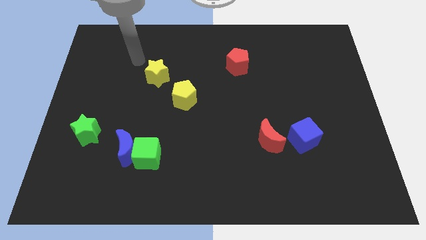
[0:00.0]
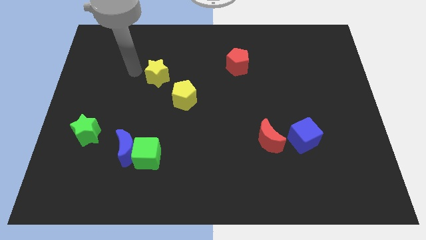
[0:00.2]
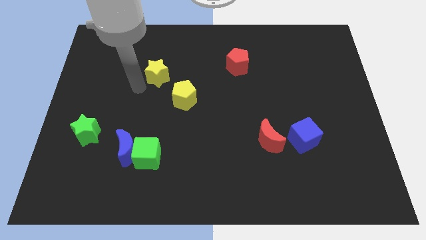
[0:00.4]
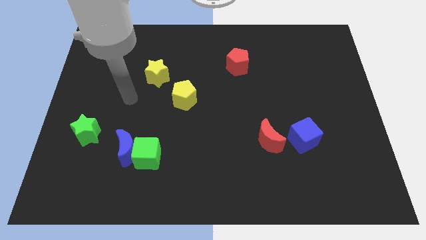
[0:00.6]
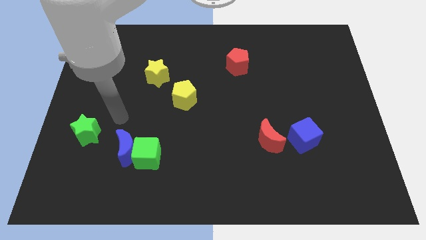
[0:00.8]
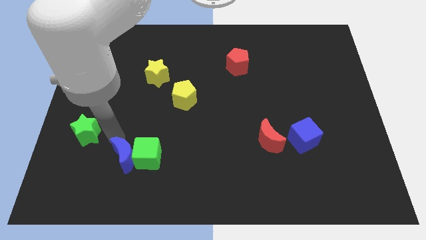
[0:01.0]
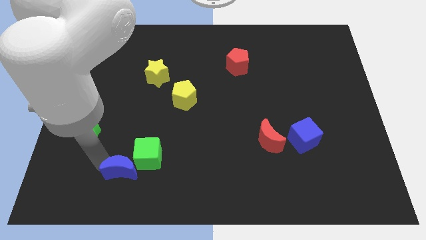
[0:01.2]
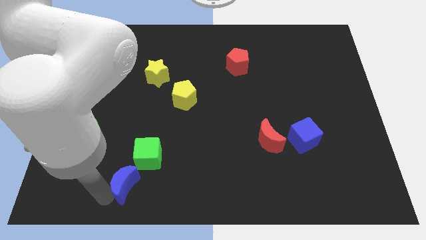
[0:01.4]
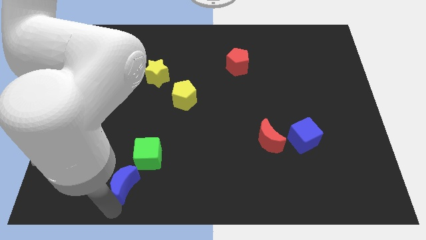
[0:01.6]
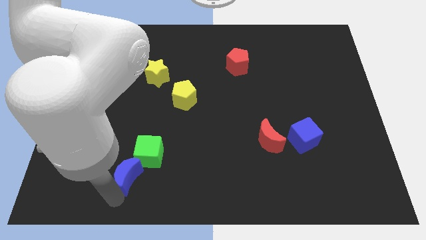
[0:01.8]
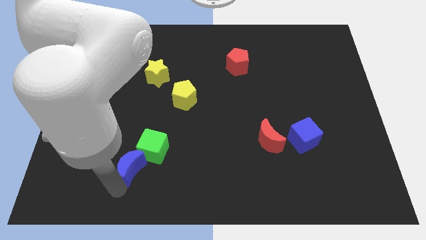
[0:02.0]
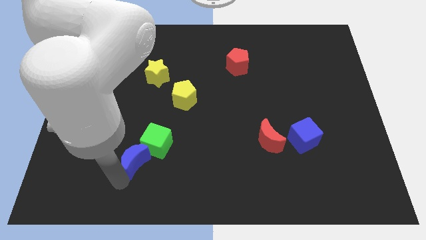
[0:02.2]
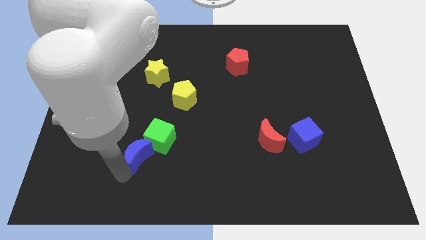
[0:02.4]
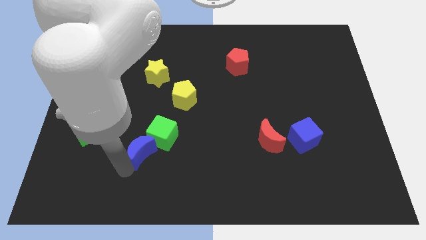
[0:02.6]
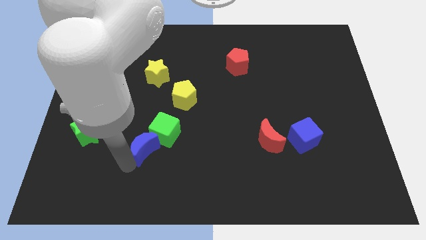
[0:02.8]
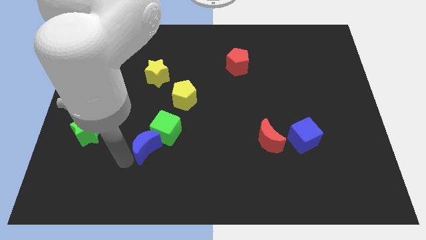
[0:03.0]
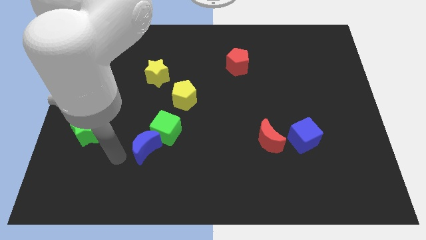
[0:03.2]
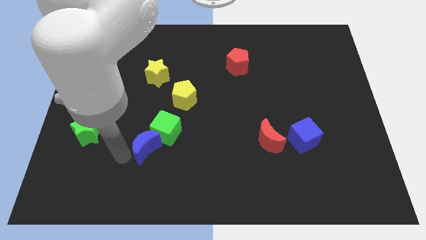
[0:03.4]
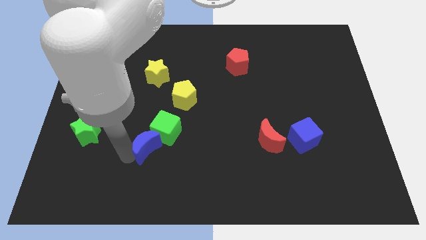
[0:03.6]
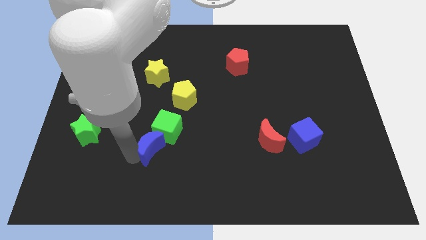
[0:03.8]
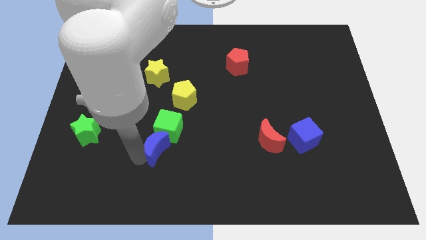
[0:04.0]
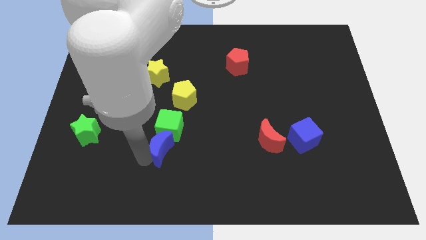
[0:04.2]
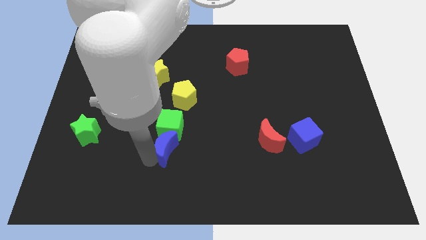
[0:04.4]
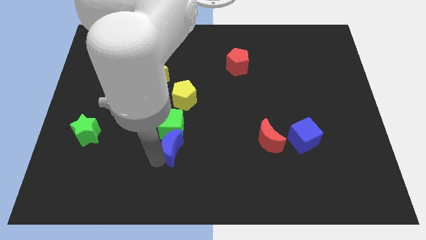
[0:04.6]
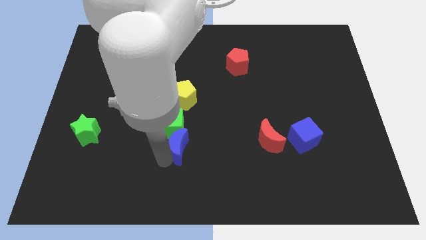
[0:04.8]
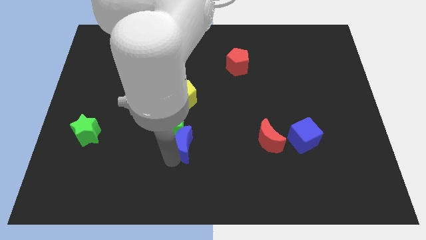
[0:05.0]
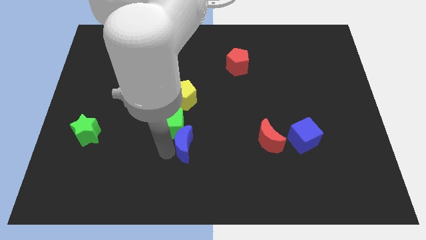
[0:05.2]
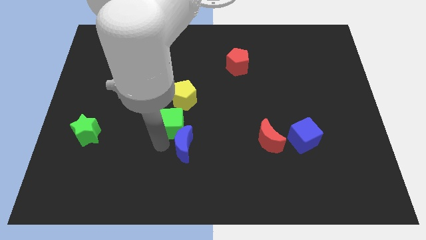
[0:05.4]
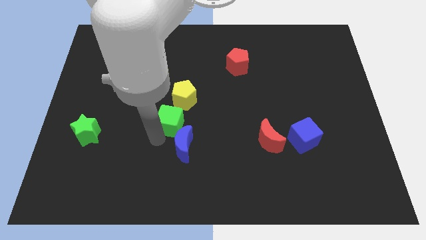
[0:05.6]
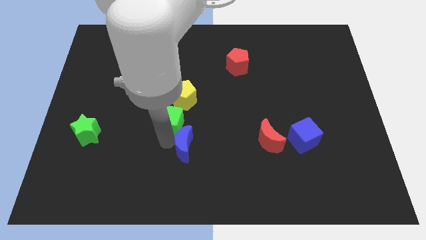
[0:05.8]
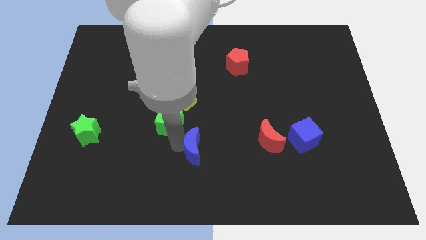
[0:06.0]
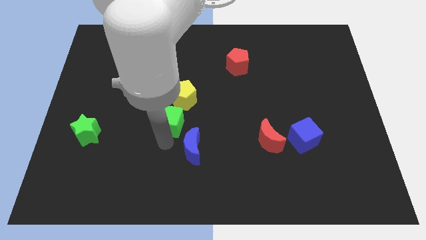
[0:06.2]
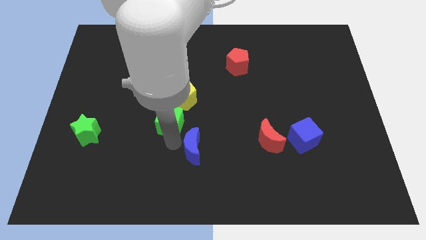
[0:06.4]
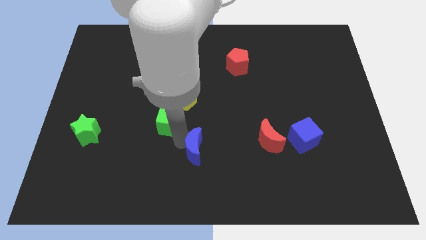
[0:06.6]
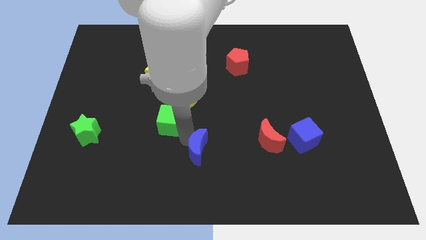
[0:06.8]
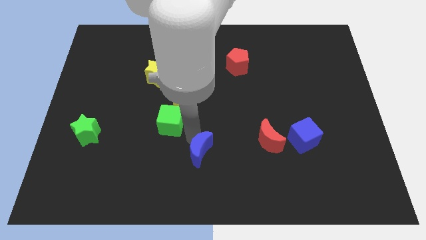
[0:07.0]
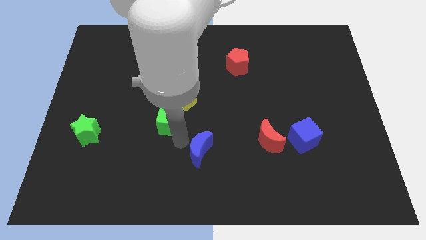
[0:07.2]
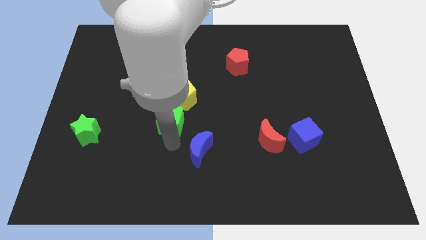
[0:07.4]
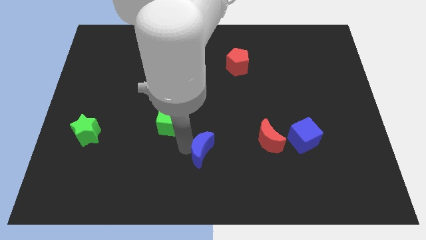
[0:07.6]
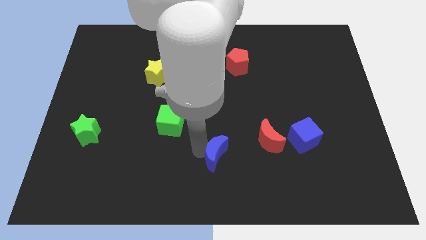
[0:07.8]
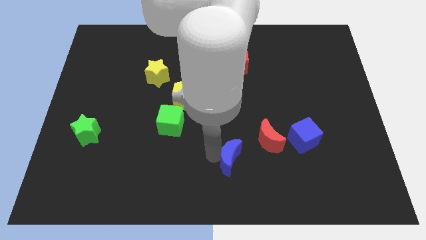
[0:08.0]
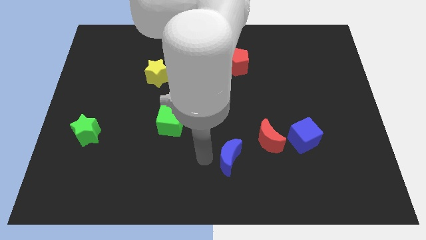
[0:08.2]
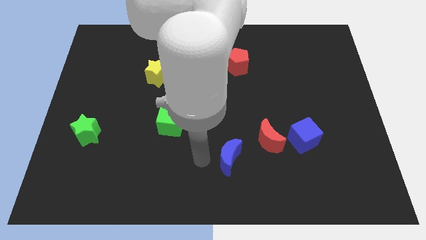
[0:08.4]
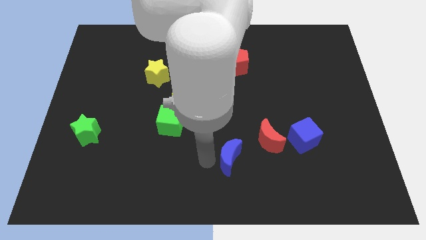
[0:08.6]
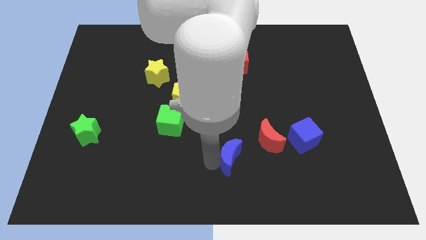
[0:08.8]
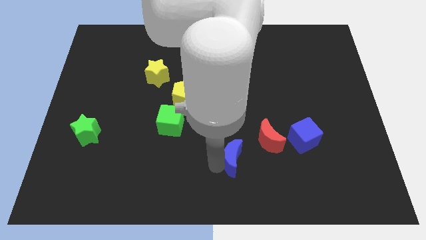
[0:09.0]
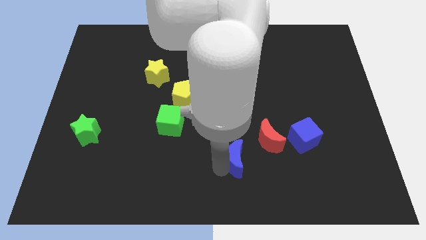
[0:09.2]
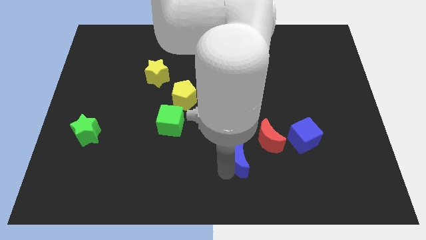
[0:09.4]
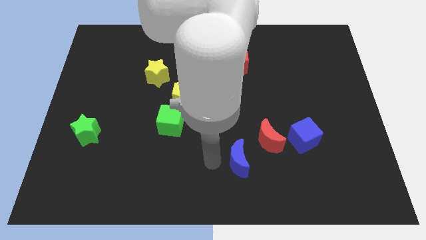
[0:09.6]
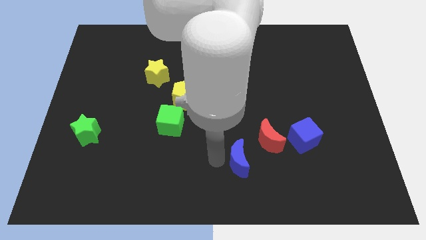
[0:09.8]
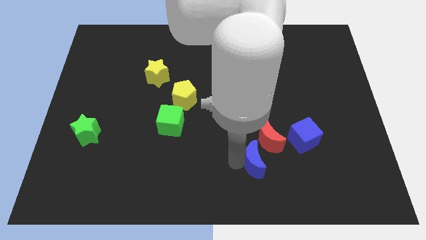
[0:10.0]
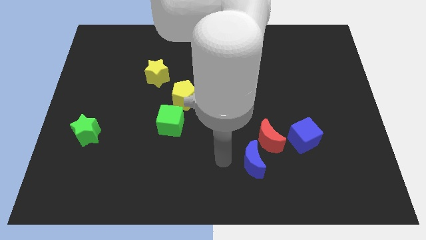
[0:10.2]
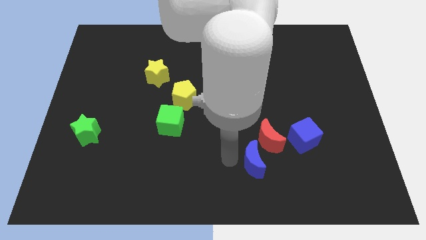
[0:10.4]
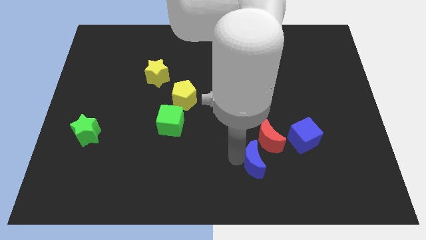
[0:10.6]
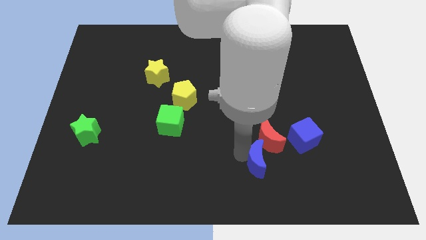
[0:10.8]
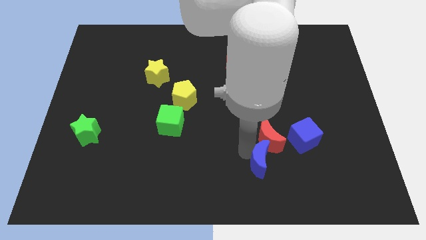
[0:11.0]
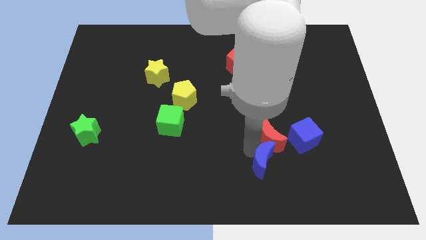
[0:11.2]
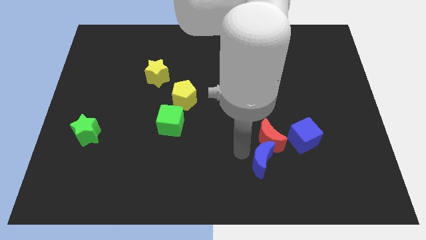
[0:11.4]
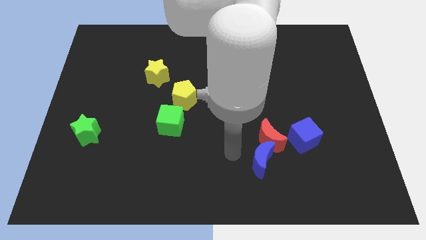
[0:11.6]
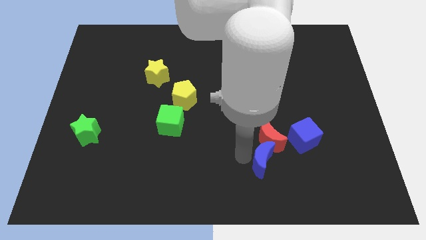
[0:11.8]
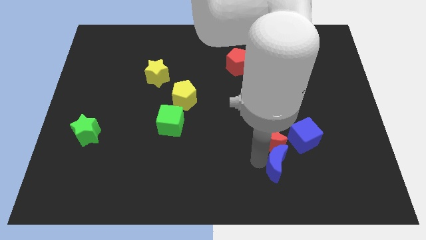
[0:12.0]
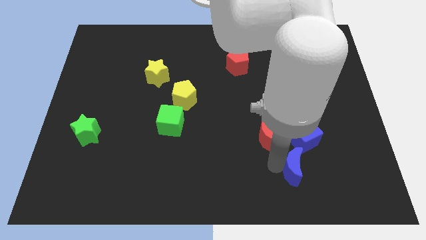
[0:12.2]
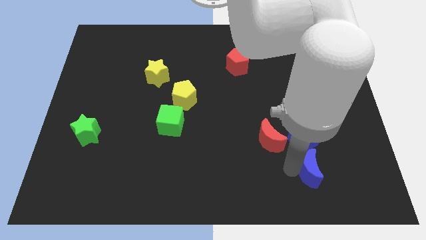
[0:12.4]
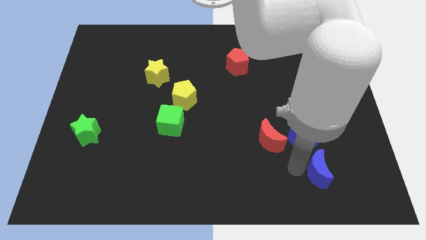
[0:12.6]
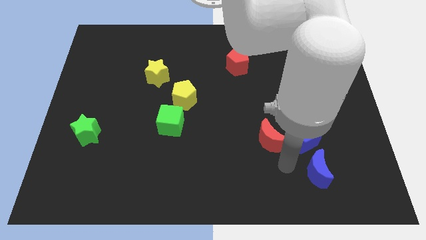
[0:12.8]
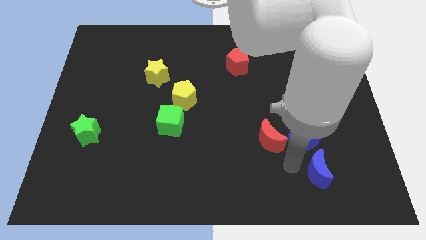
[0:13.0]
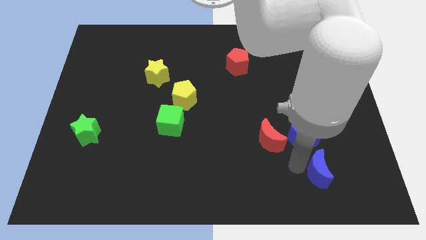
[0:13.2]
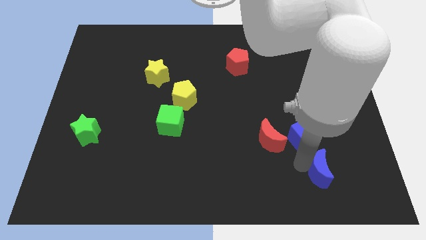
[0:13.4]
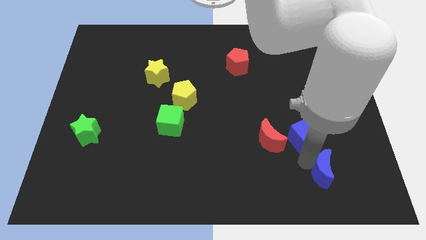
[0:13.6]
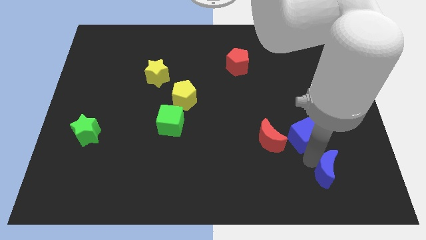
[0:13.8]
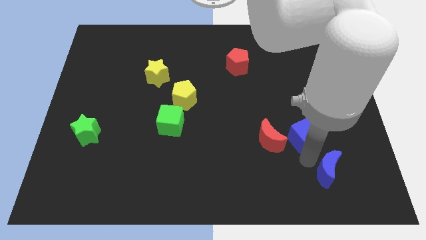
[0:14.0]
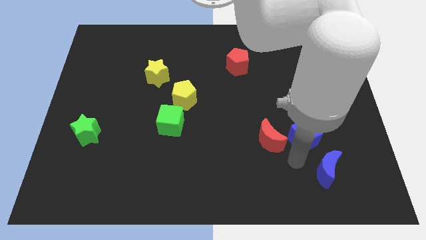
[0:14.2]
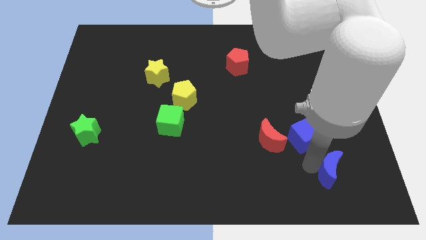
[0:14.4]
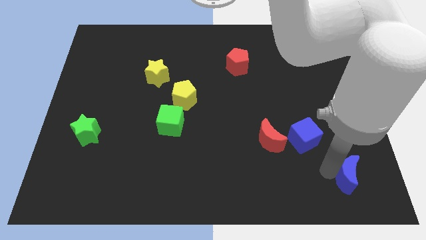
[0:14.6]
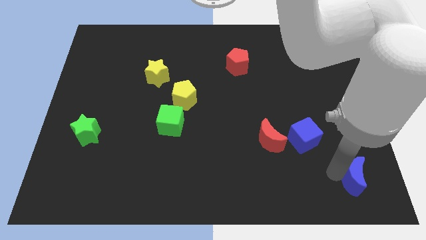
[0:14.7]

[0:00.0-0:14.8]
slide the blue moon to the bottom right of the board
